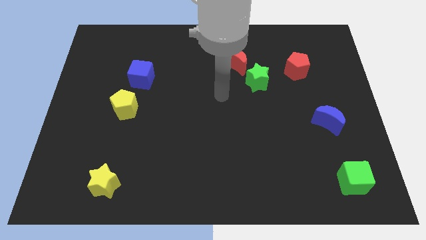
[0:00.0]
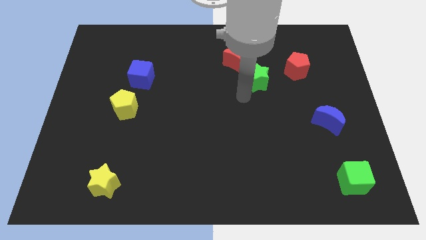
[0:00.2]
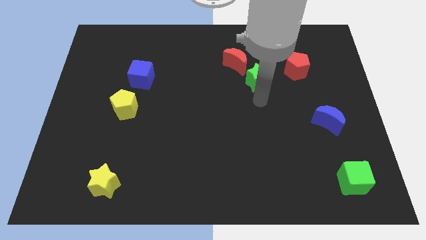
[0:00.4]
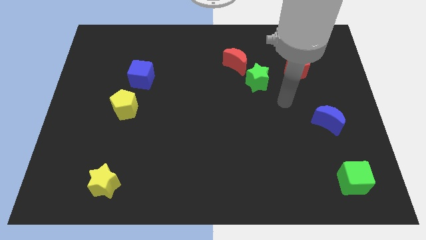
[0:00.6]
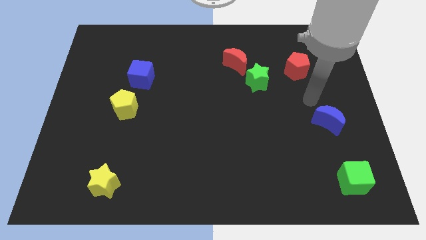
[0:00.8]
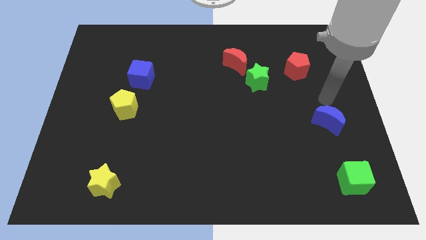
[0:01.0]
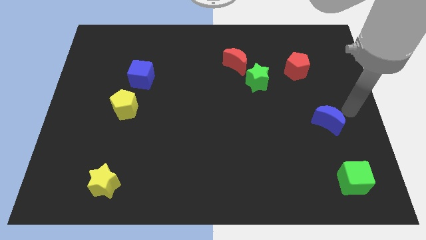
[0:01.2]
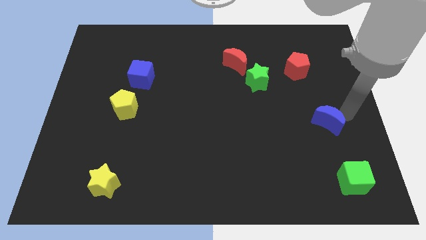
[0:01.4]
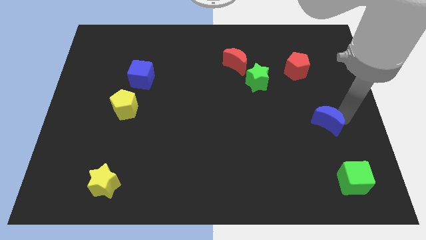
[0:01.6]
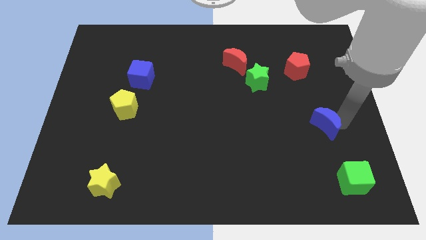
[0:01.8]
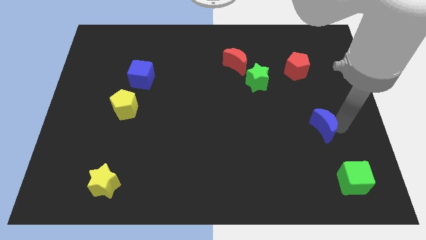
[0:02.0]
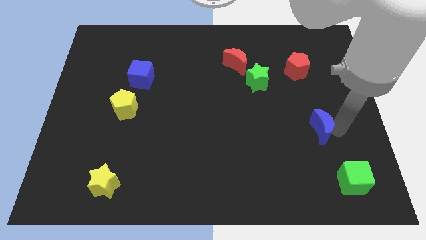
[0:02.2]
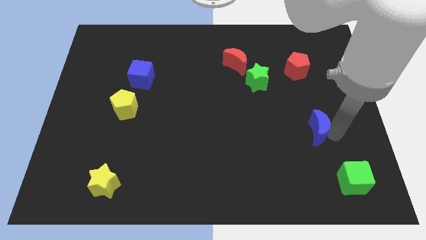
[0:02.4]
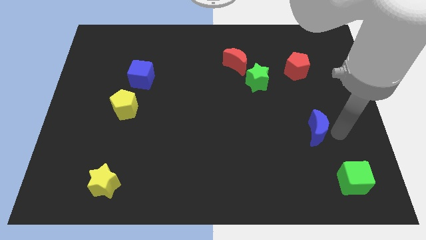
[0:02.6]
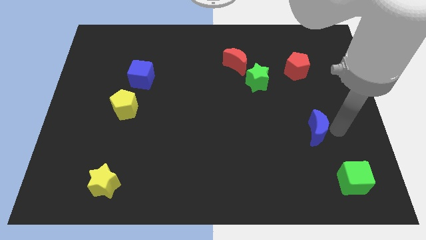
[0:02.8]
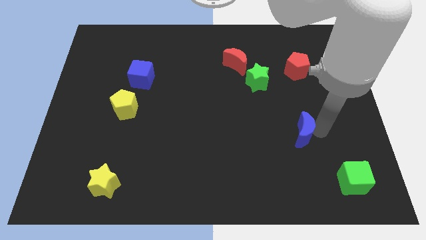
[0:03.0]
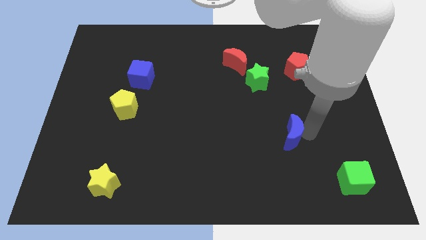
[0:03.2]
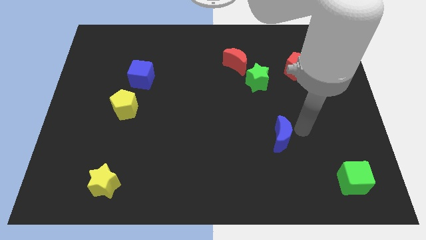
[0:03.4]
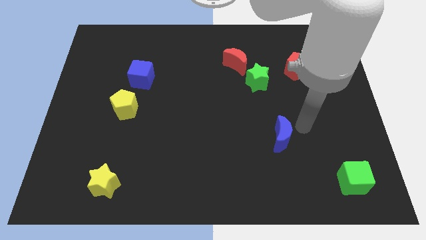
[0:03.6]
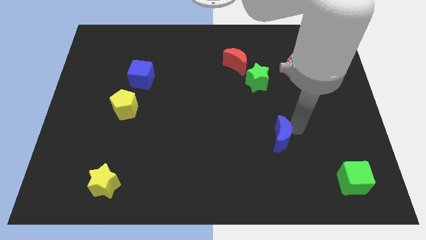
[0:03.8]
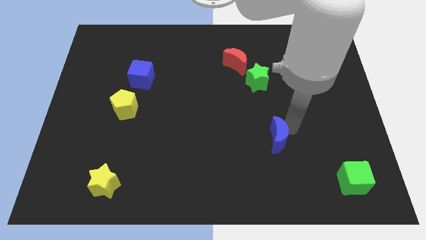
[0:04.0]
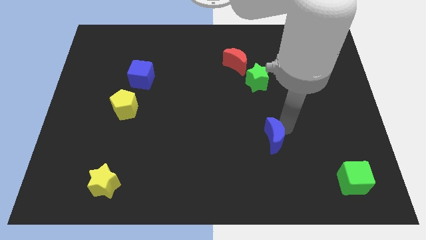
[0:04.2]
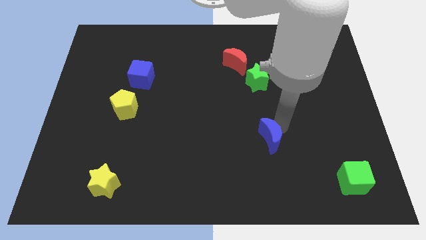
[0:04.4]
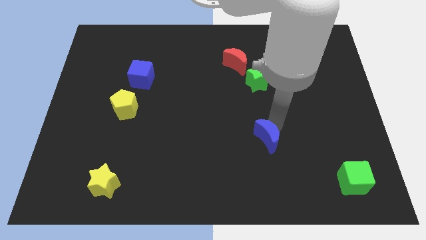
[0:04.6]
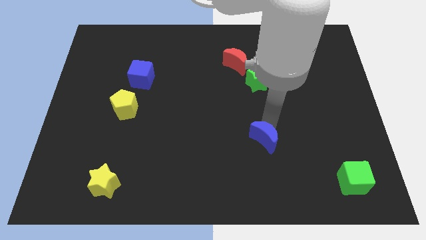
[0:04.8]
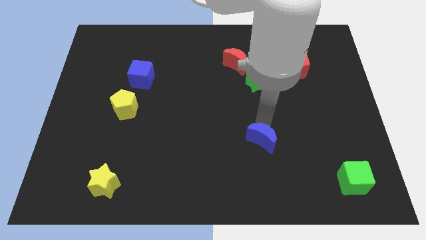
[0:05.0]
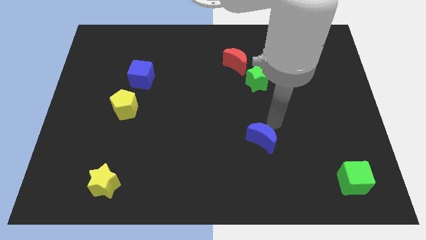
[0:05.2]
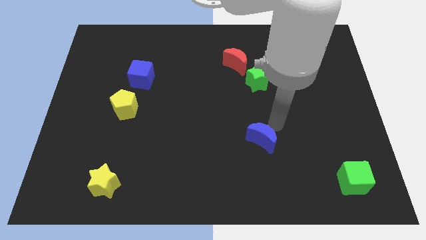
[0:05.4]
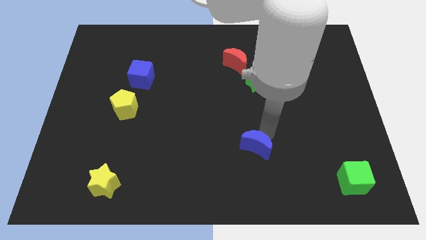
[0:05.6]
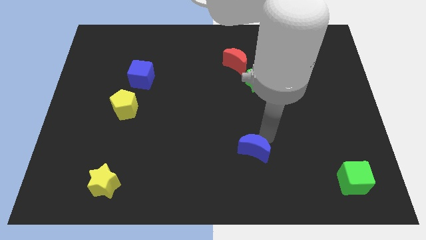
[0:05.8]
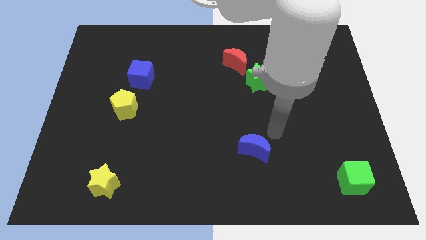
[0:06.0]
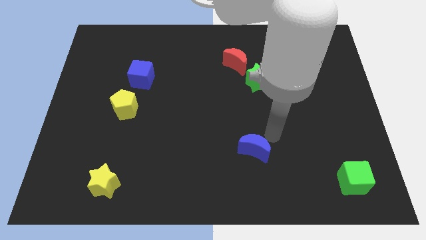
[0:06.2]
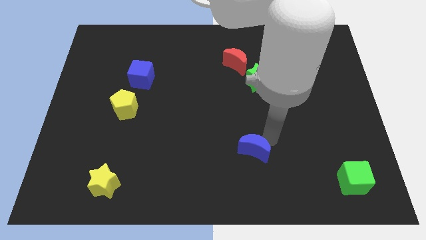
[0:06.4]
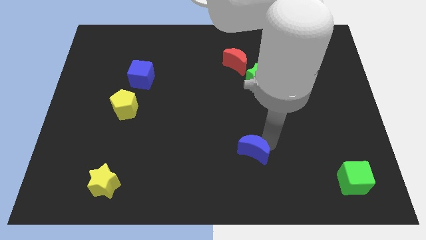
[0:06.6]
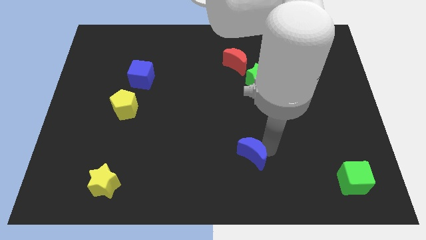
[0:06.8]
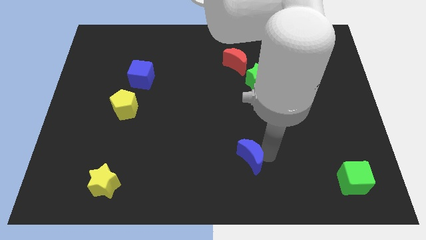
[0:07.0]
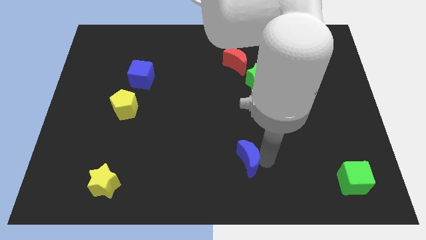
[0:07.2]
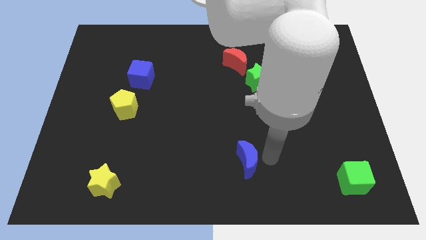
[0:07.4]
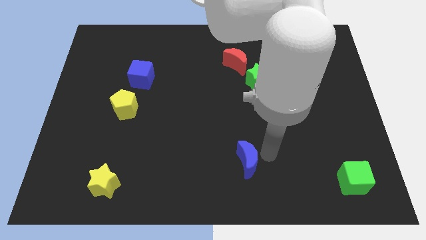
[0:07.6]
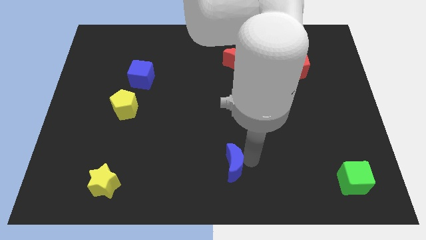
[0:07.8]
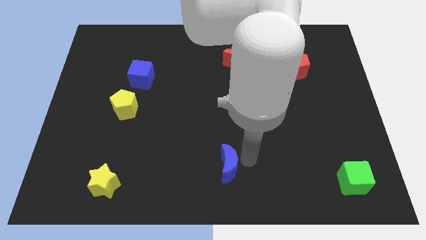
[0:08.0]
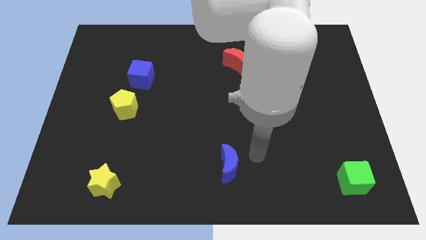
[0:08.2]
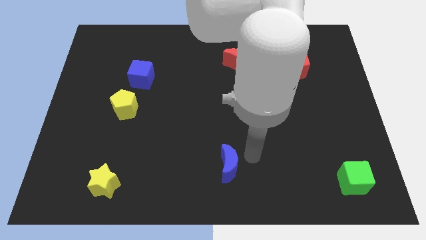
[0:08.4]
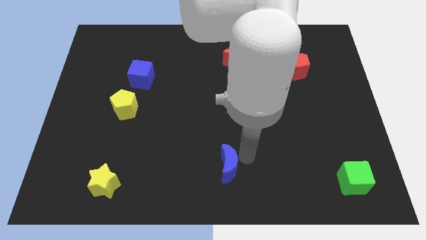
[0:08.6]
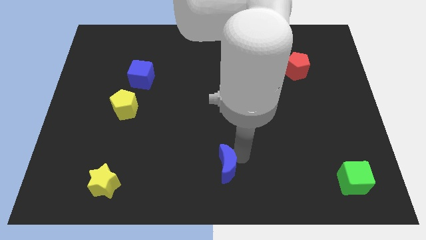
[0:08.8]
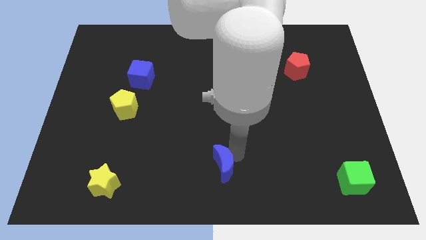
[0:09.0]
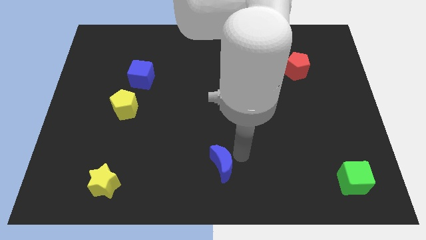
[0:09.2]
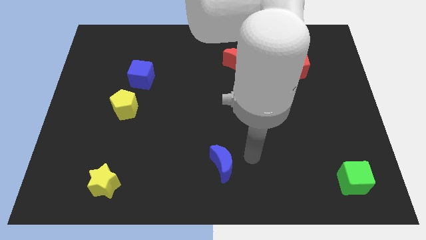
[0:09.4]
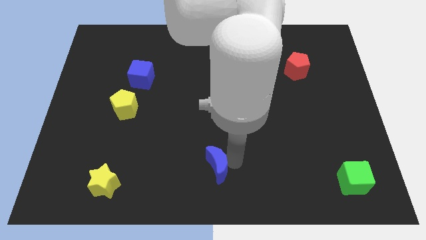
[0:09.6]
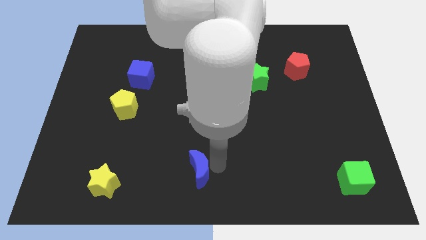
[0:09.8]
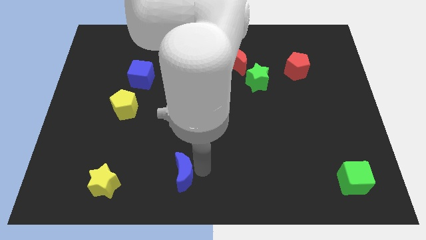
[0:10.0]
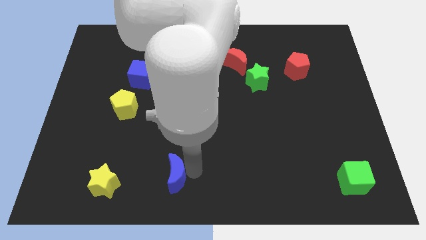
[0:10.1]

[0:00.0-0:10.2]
slide the blue moon to the right side of the yellow star

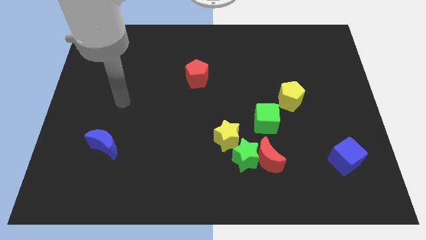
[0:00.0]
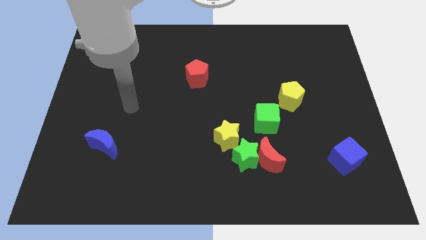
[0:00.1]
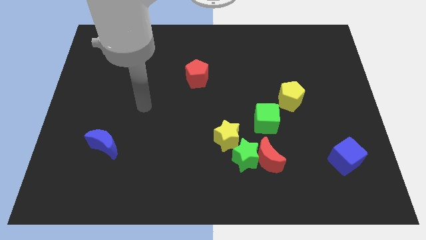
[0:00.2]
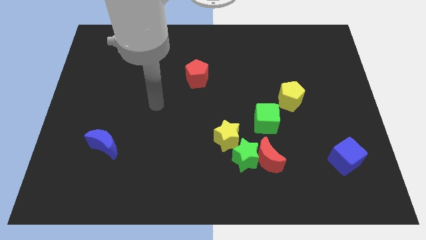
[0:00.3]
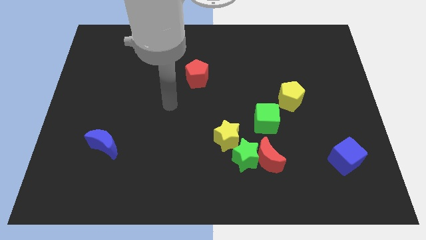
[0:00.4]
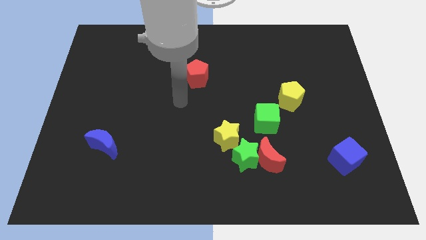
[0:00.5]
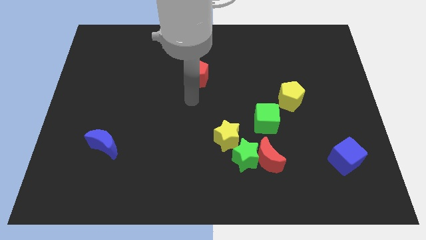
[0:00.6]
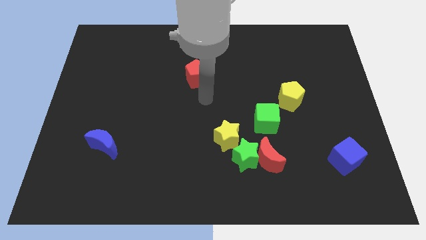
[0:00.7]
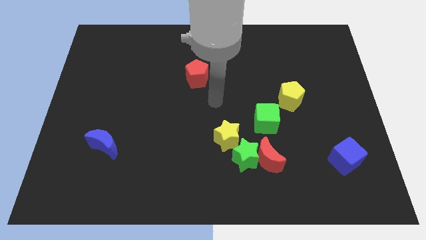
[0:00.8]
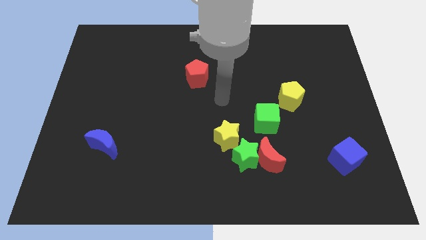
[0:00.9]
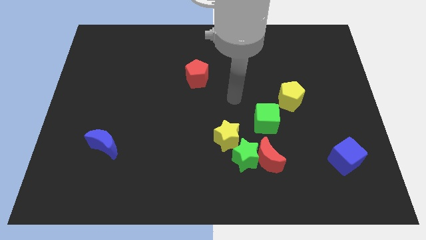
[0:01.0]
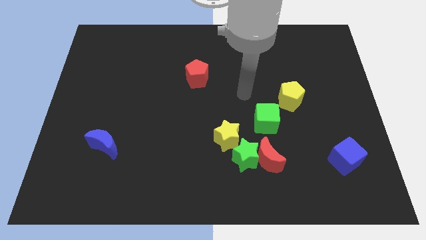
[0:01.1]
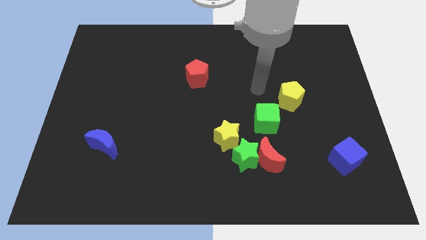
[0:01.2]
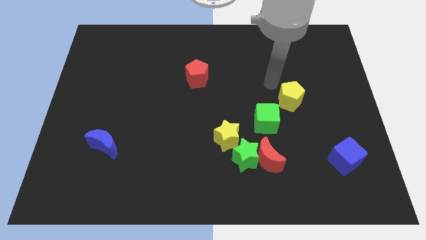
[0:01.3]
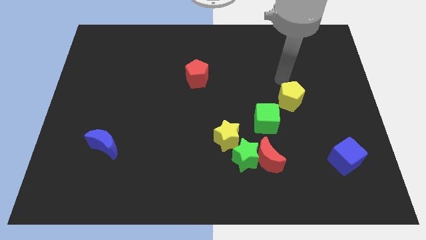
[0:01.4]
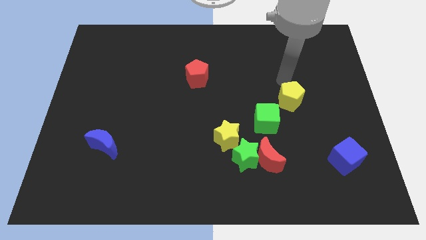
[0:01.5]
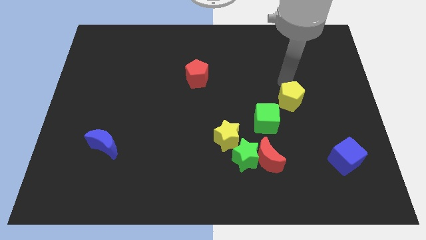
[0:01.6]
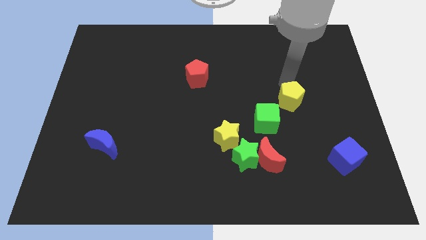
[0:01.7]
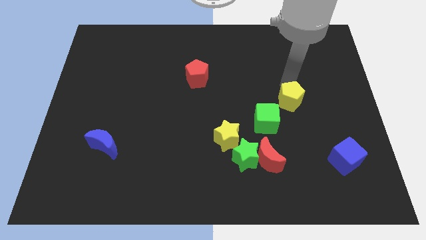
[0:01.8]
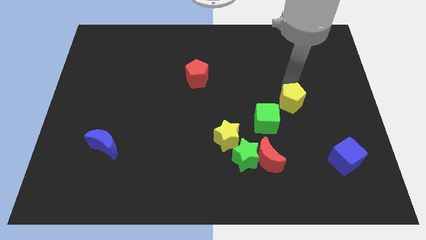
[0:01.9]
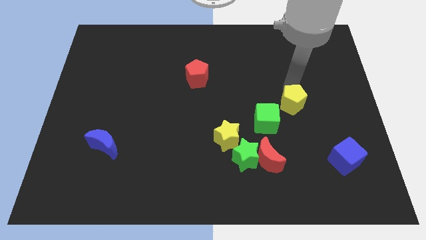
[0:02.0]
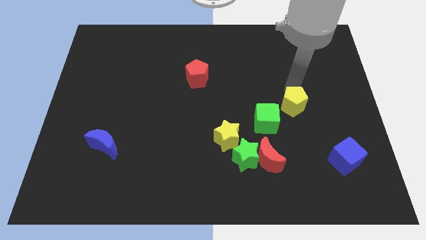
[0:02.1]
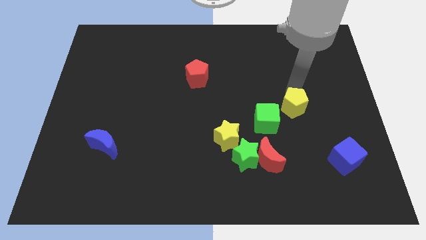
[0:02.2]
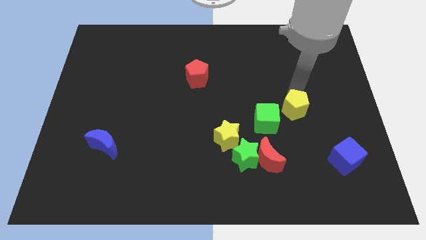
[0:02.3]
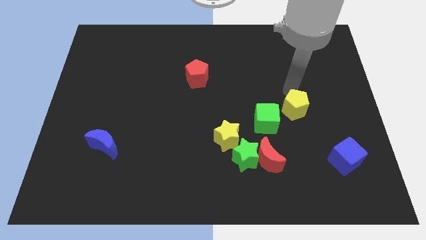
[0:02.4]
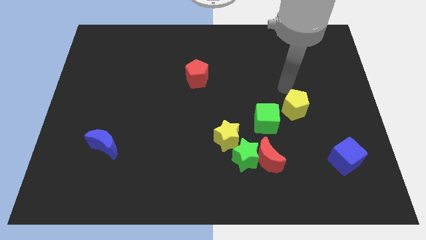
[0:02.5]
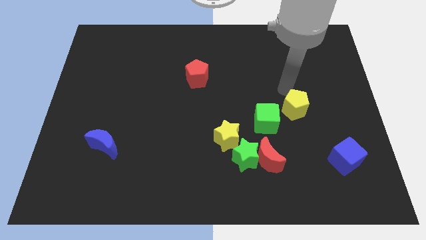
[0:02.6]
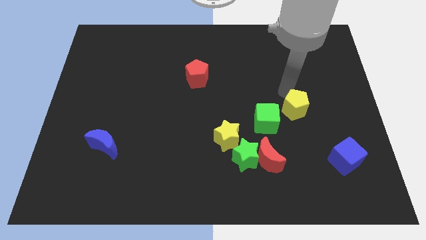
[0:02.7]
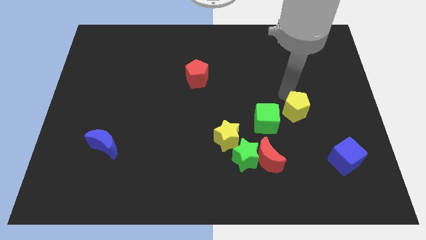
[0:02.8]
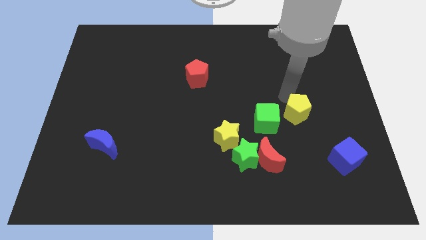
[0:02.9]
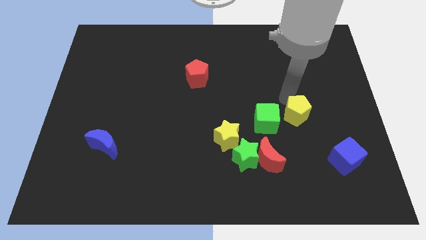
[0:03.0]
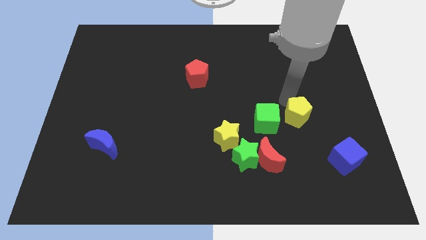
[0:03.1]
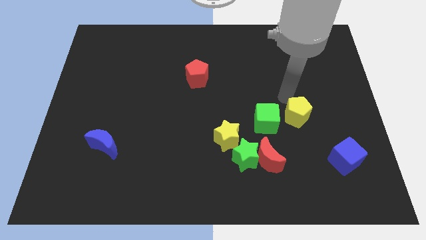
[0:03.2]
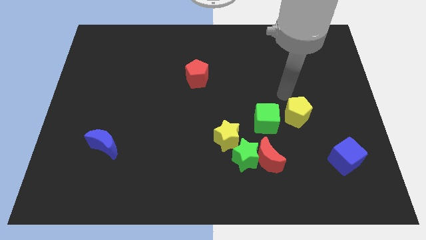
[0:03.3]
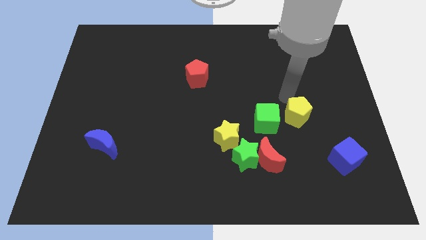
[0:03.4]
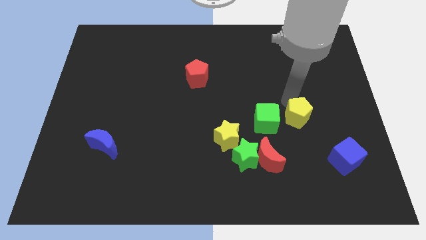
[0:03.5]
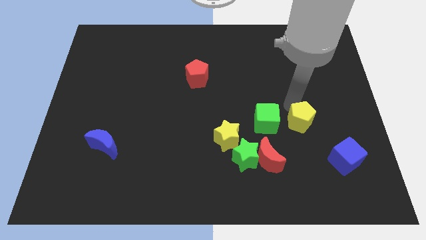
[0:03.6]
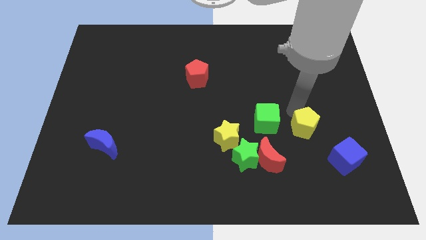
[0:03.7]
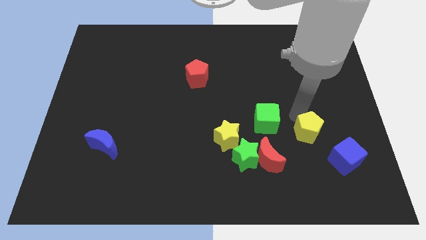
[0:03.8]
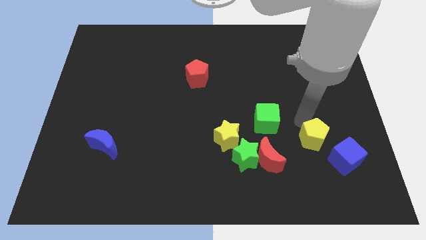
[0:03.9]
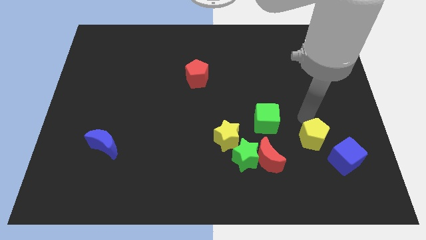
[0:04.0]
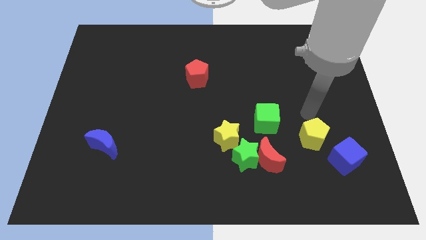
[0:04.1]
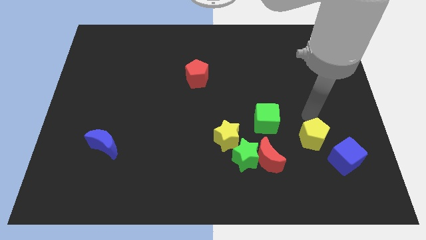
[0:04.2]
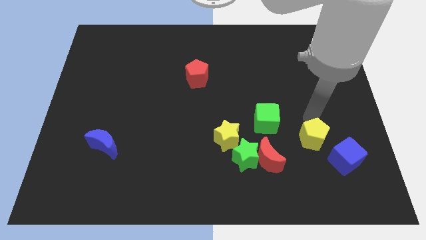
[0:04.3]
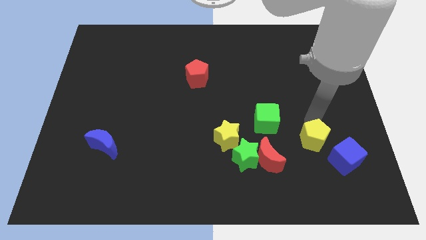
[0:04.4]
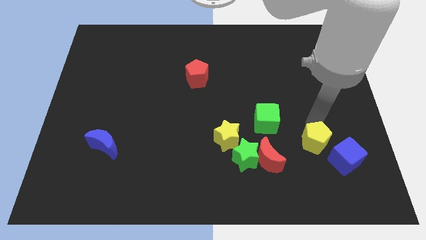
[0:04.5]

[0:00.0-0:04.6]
push the yellow pentagon just right of the red moon
